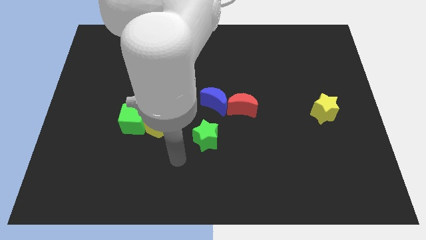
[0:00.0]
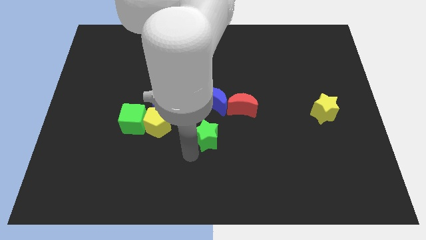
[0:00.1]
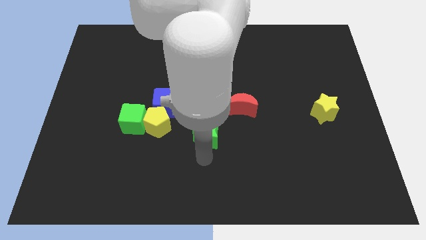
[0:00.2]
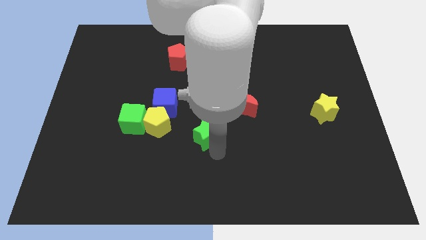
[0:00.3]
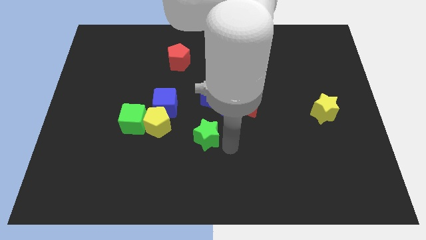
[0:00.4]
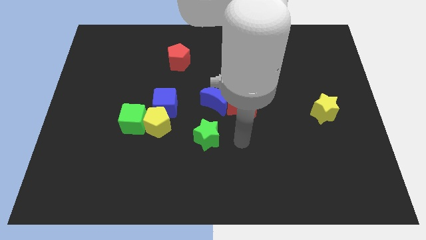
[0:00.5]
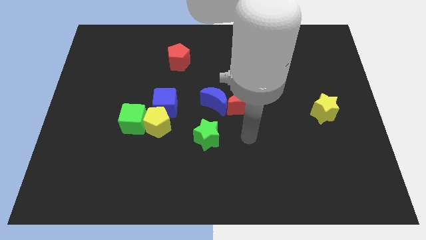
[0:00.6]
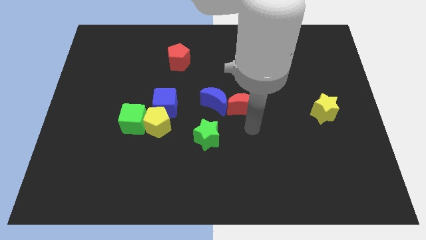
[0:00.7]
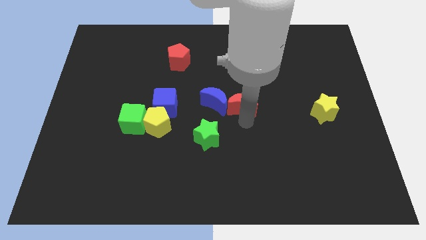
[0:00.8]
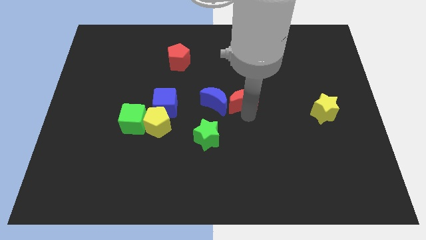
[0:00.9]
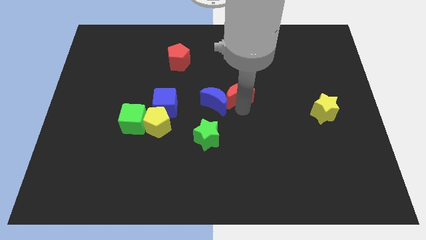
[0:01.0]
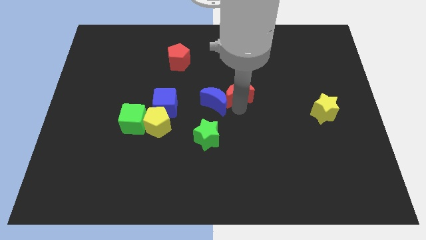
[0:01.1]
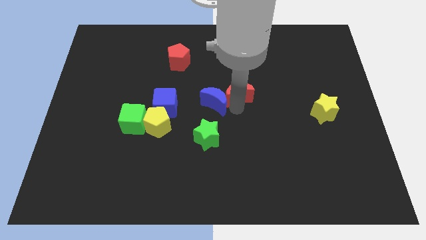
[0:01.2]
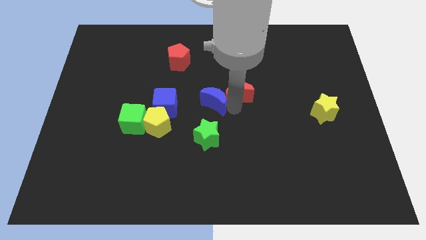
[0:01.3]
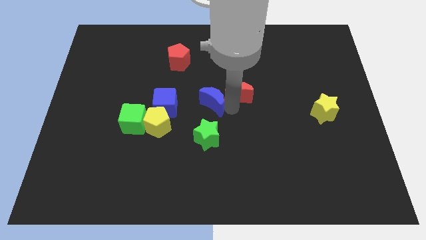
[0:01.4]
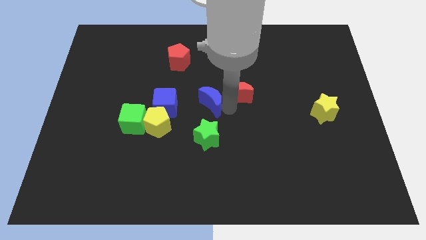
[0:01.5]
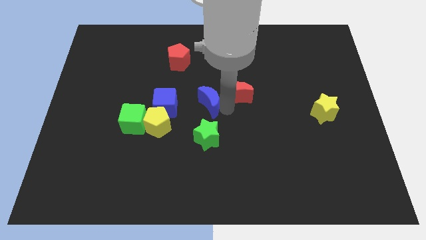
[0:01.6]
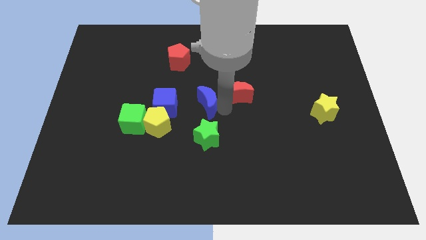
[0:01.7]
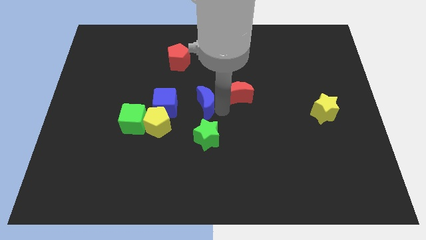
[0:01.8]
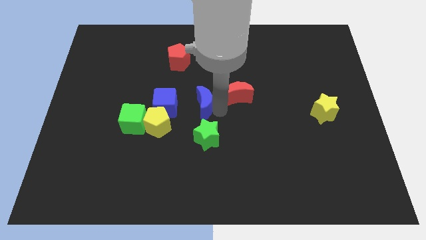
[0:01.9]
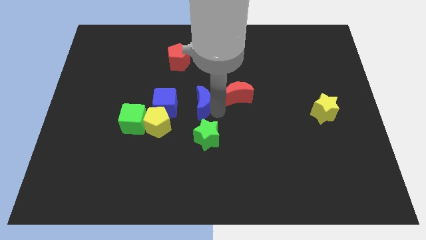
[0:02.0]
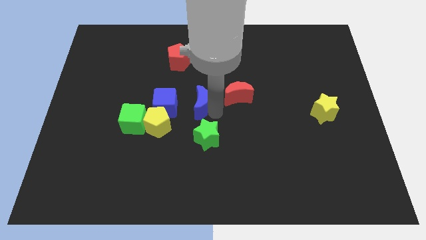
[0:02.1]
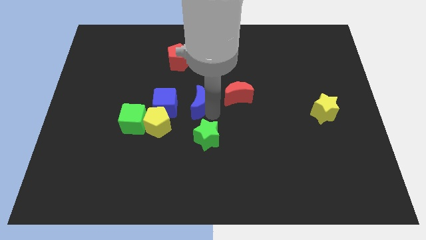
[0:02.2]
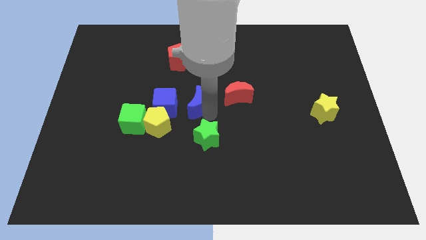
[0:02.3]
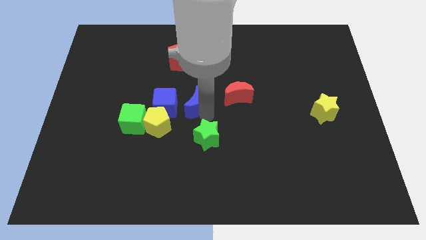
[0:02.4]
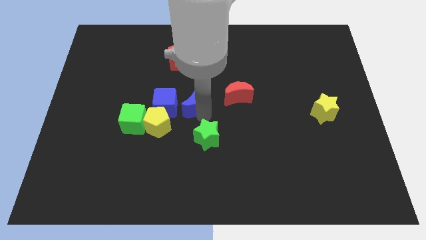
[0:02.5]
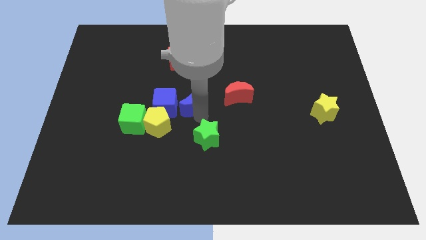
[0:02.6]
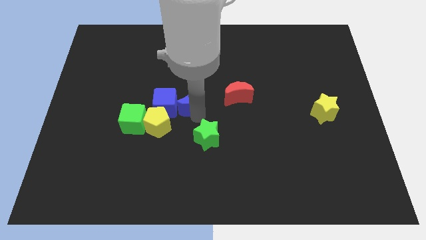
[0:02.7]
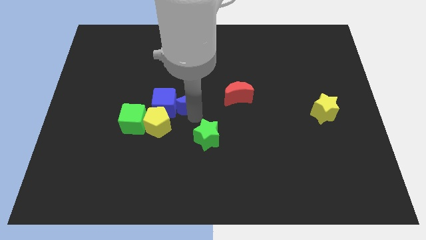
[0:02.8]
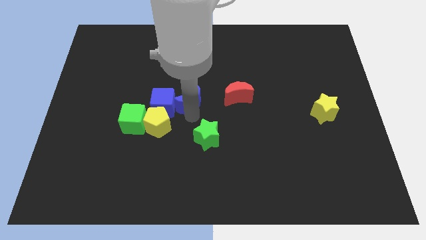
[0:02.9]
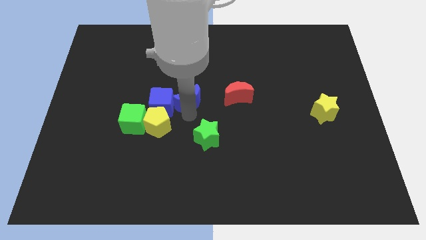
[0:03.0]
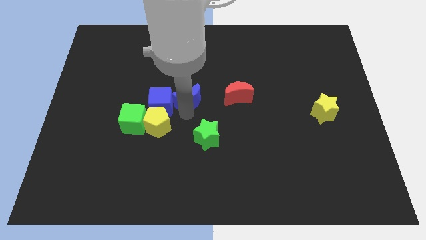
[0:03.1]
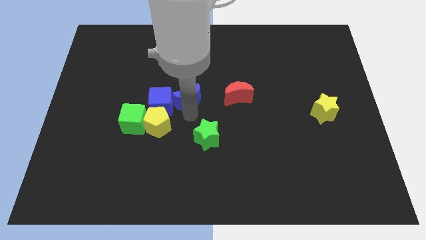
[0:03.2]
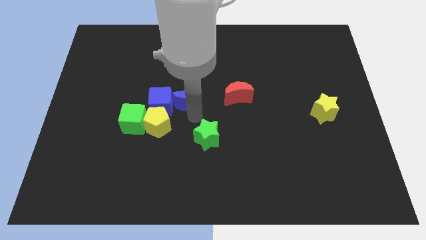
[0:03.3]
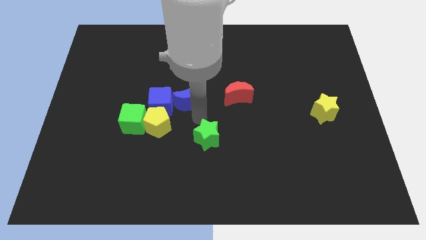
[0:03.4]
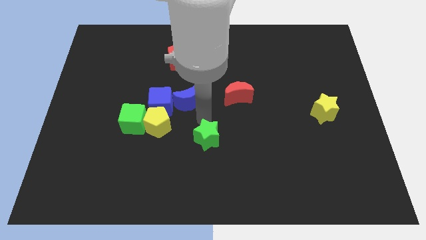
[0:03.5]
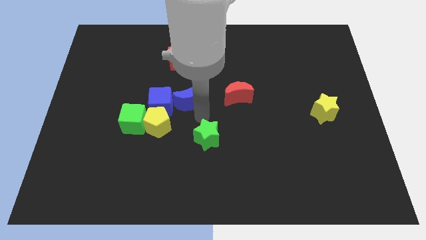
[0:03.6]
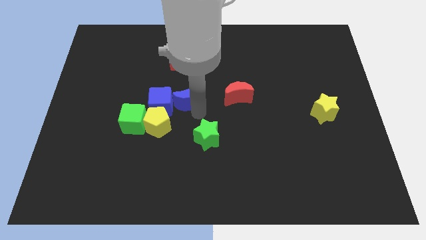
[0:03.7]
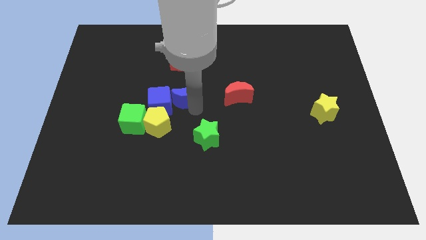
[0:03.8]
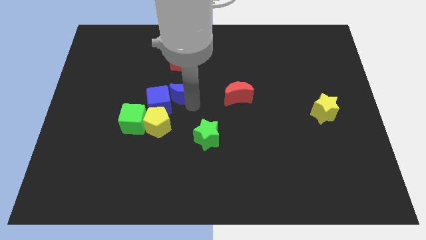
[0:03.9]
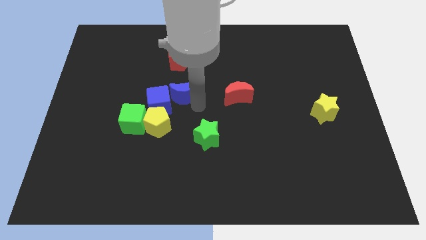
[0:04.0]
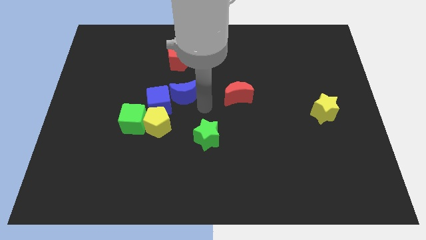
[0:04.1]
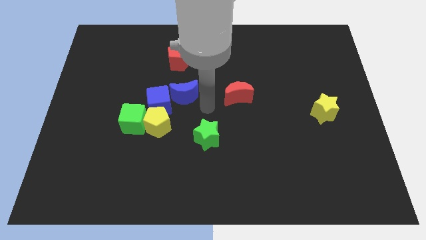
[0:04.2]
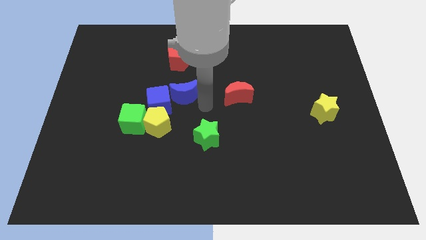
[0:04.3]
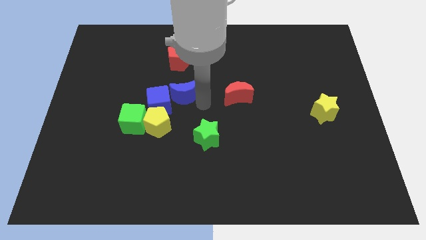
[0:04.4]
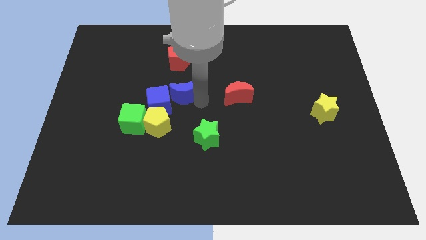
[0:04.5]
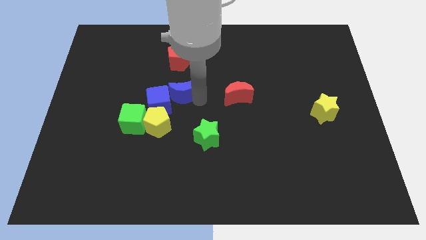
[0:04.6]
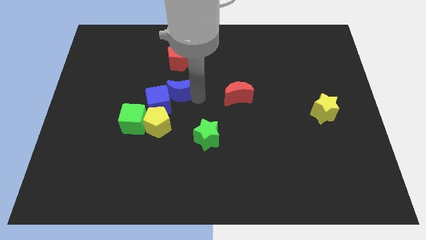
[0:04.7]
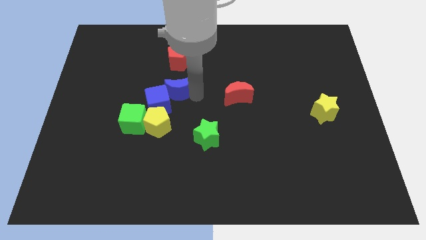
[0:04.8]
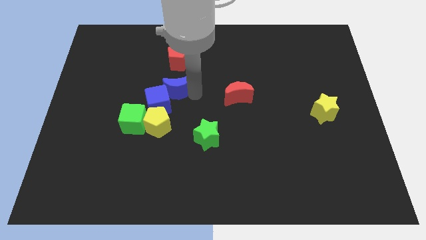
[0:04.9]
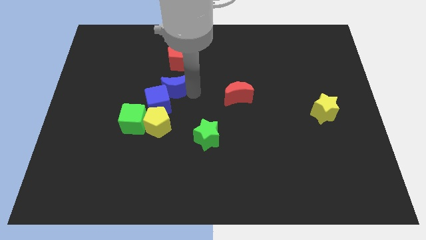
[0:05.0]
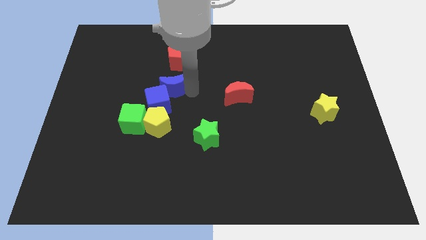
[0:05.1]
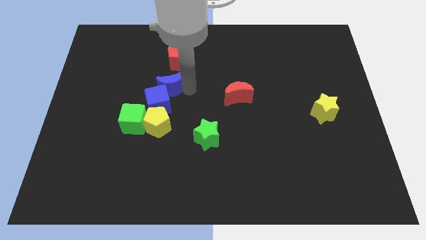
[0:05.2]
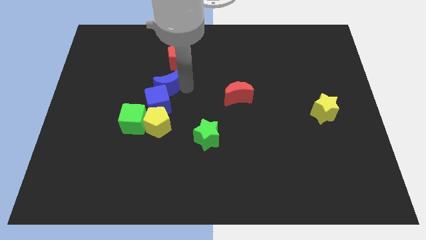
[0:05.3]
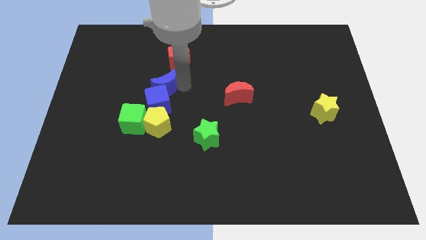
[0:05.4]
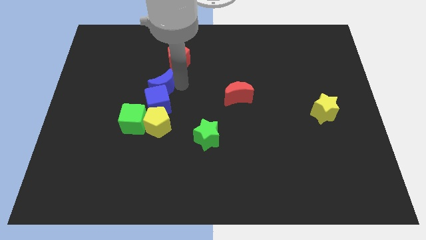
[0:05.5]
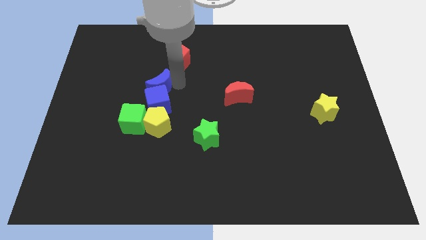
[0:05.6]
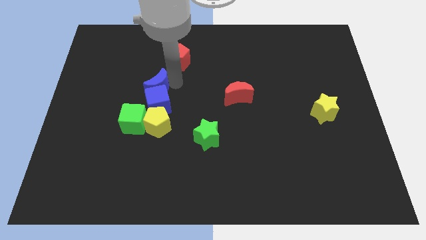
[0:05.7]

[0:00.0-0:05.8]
slide the blue moon to the top of the green cube

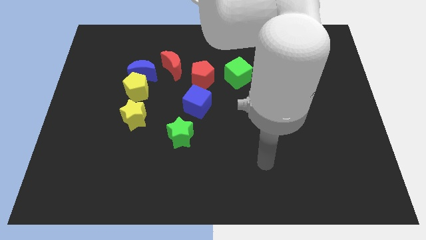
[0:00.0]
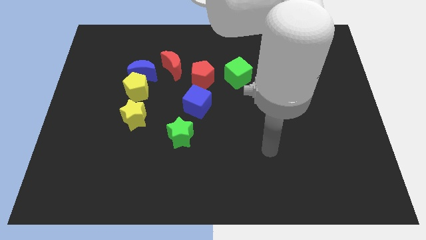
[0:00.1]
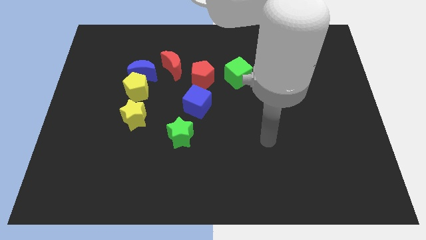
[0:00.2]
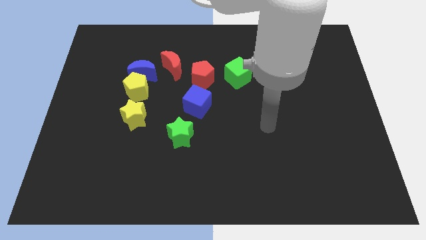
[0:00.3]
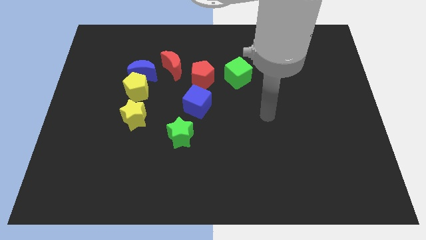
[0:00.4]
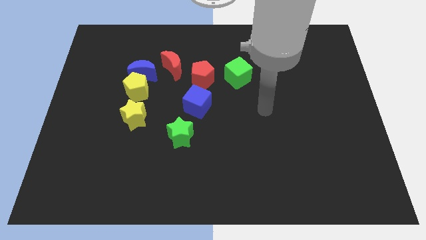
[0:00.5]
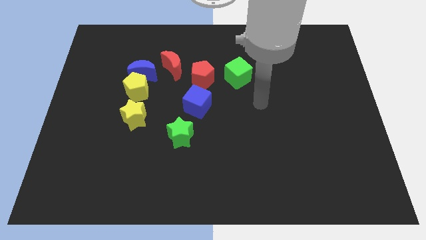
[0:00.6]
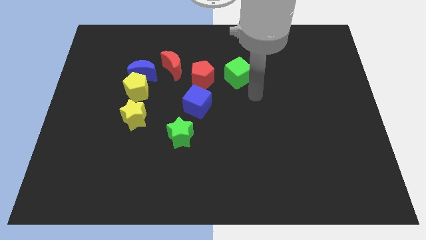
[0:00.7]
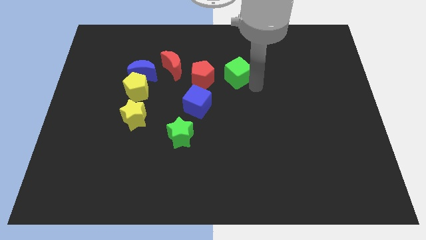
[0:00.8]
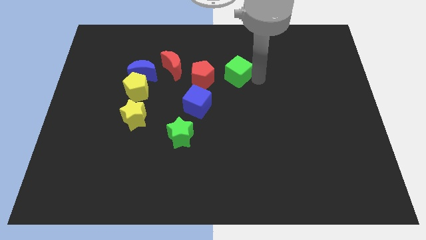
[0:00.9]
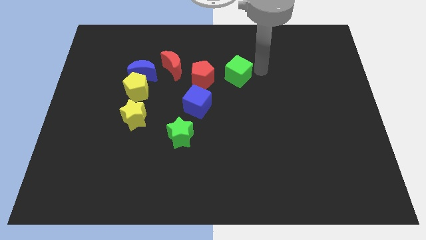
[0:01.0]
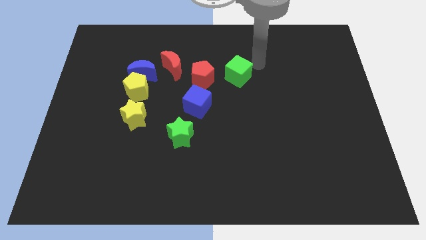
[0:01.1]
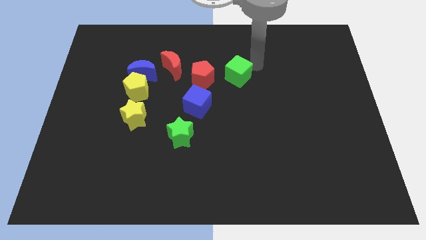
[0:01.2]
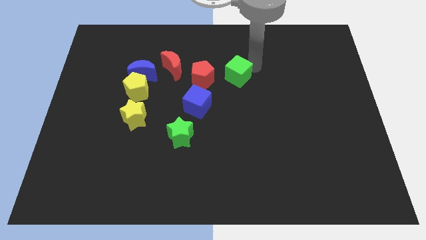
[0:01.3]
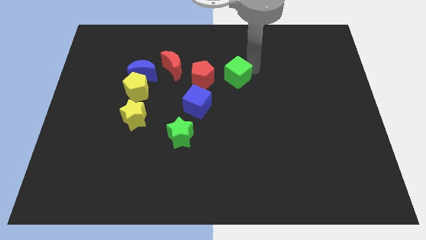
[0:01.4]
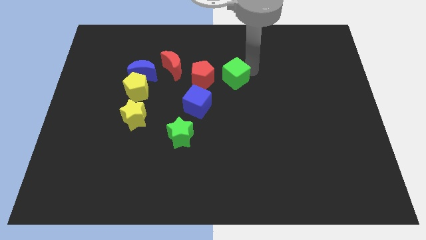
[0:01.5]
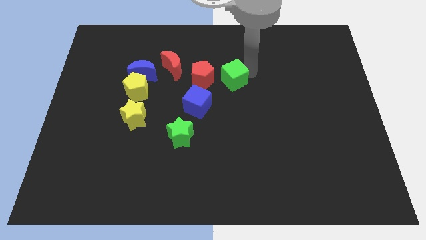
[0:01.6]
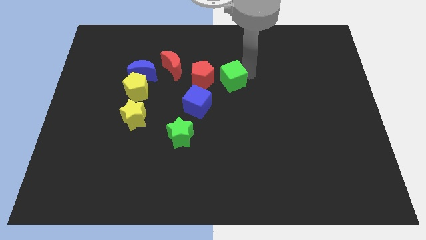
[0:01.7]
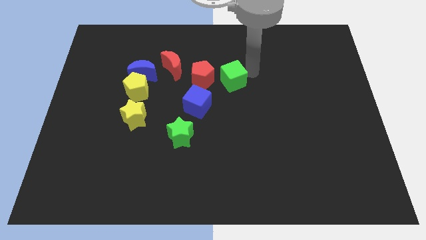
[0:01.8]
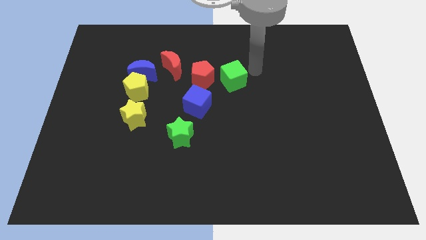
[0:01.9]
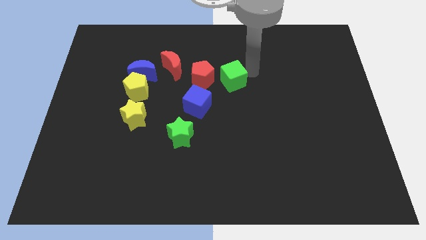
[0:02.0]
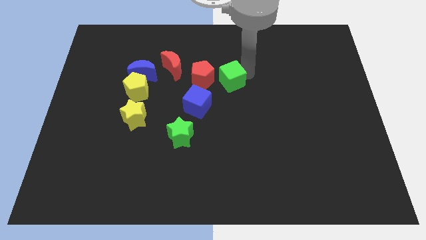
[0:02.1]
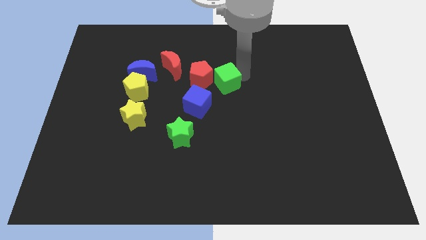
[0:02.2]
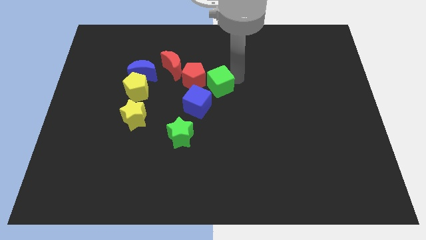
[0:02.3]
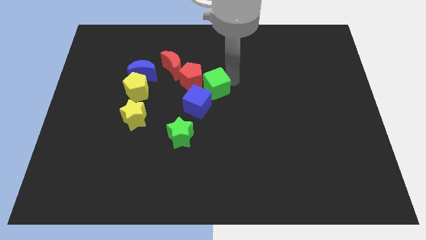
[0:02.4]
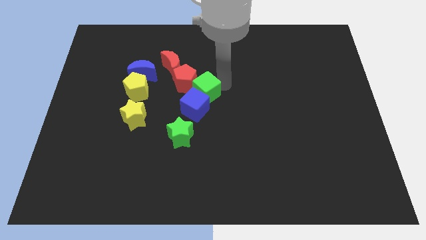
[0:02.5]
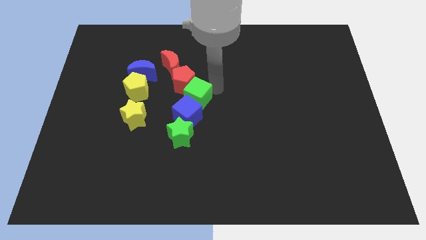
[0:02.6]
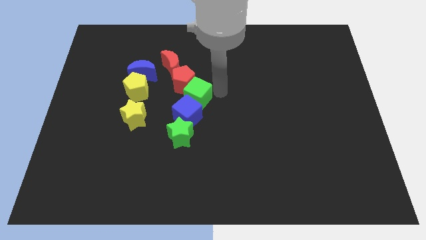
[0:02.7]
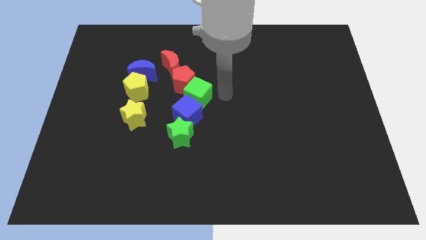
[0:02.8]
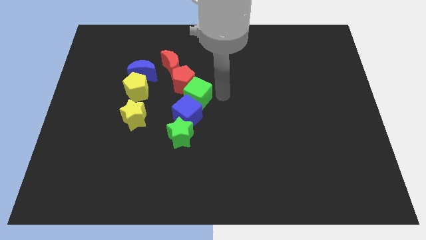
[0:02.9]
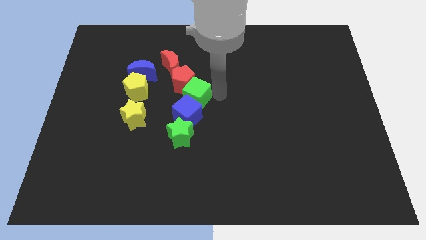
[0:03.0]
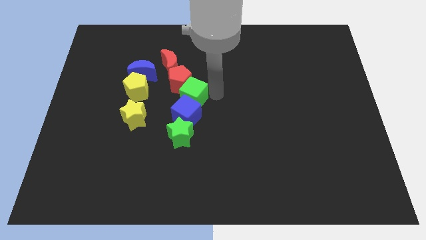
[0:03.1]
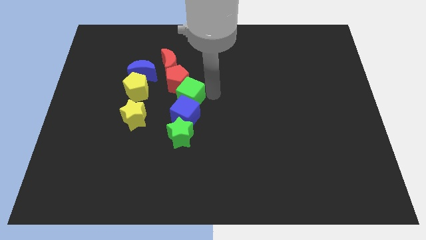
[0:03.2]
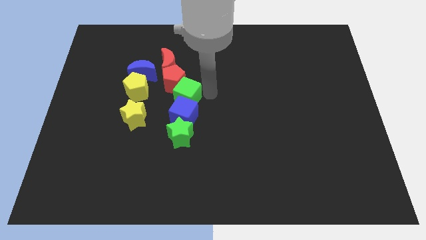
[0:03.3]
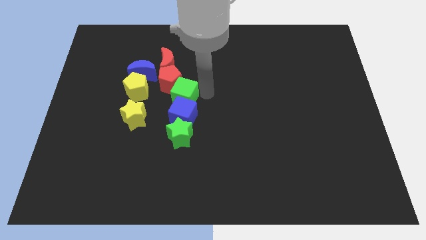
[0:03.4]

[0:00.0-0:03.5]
push the green cube to the bottom of the red moon
